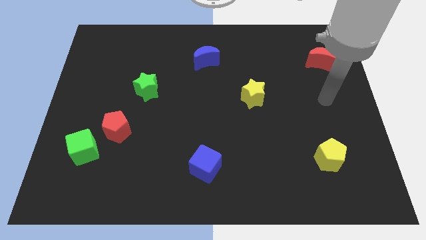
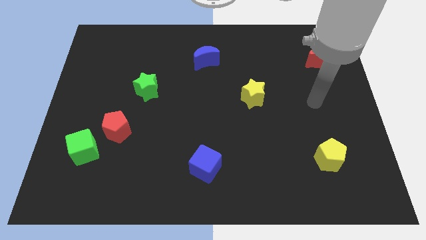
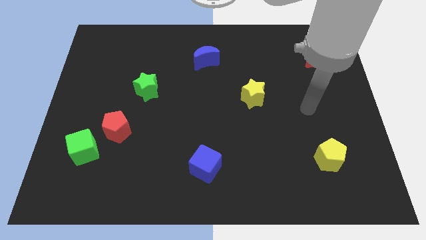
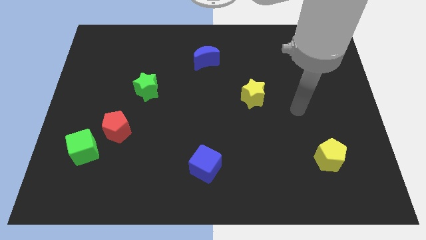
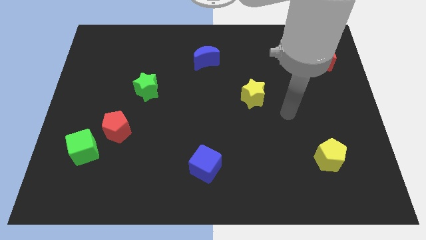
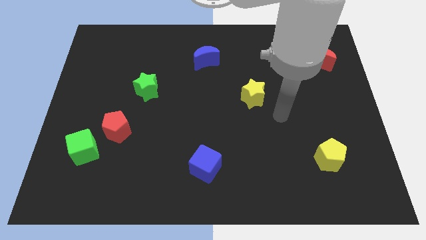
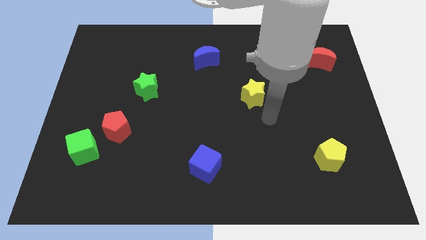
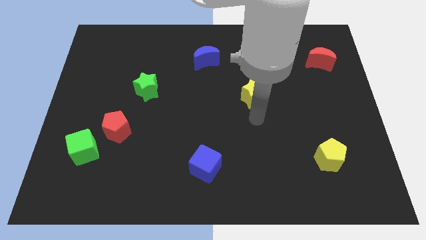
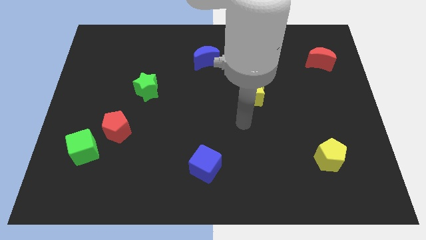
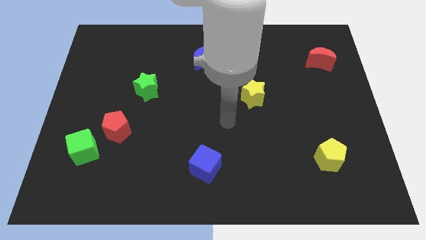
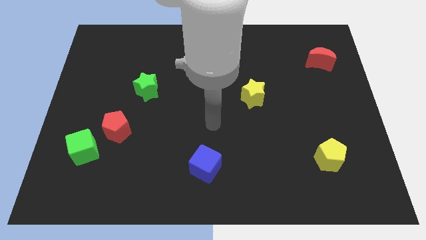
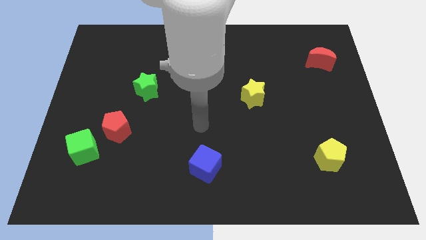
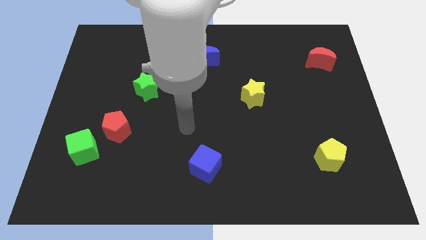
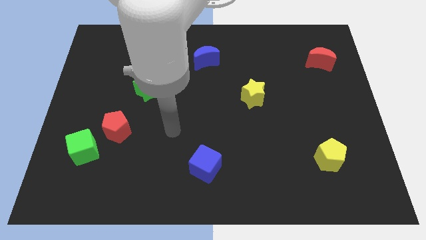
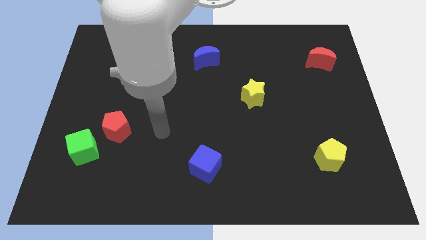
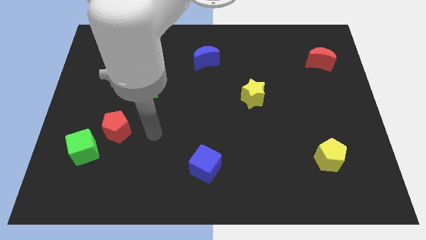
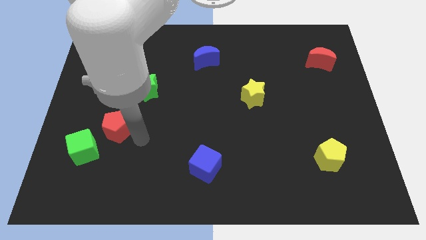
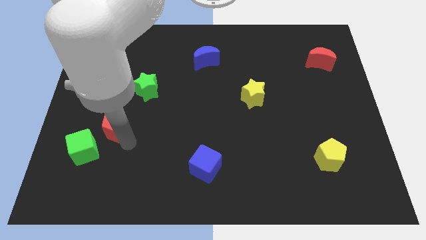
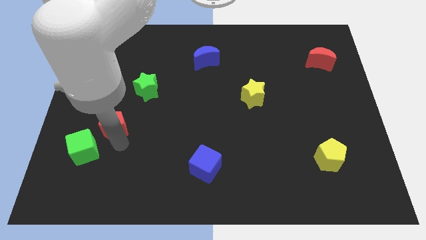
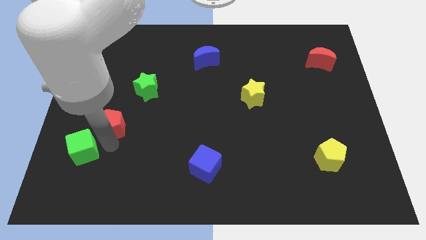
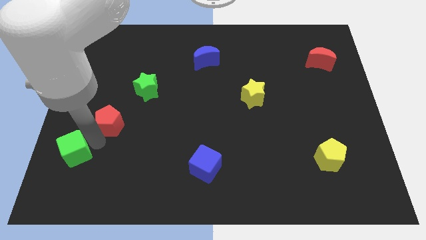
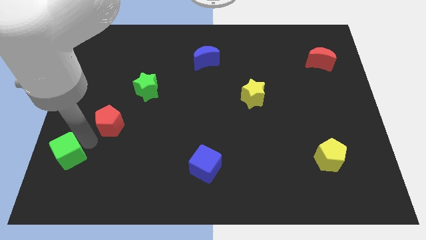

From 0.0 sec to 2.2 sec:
pull the red pentagon apart from the green cube

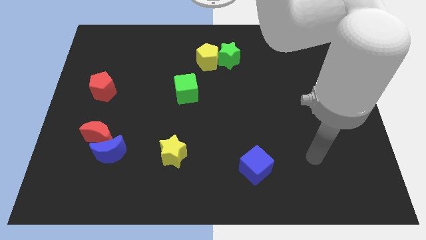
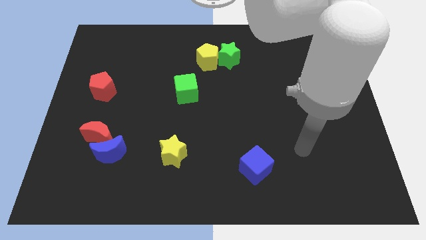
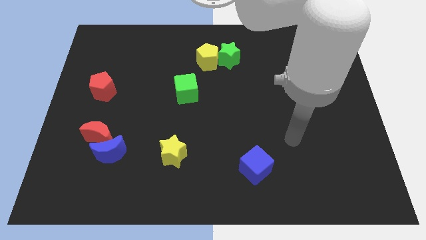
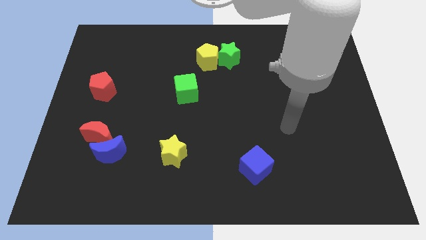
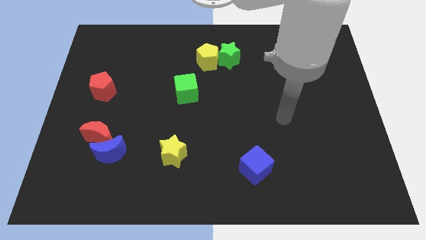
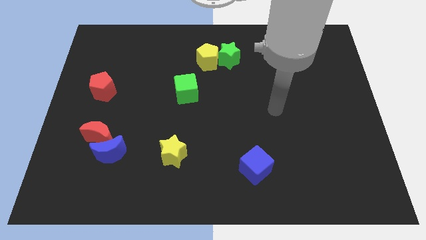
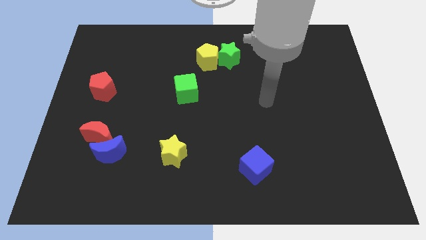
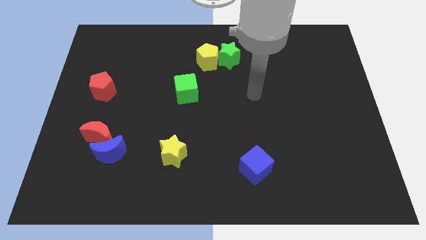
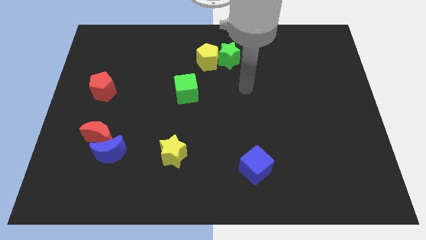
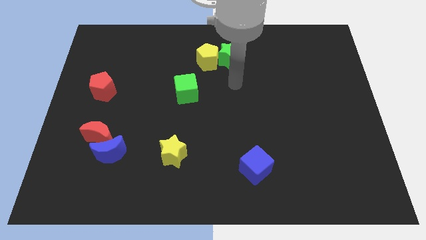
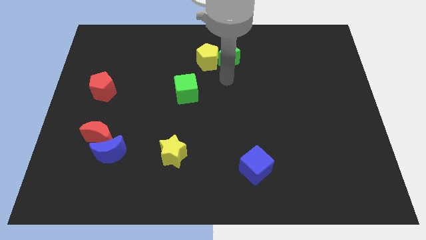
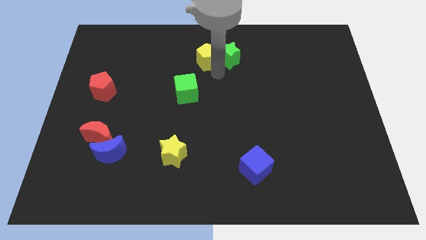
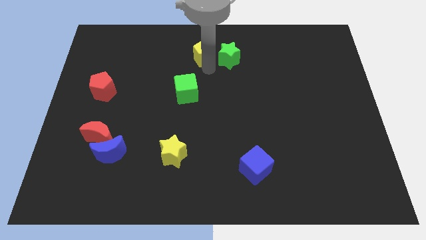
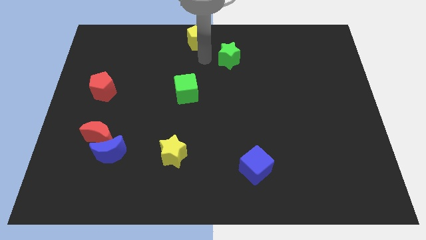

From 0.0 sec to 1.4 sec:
separate the green star from the yellow pentagon

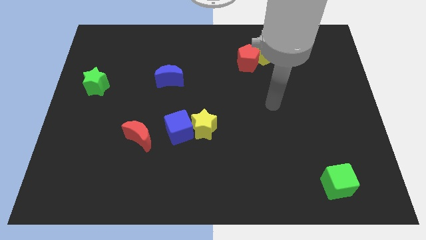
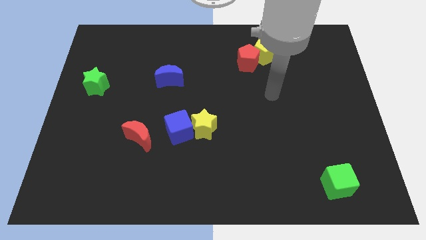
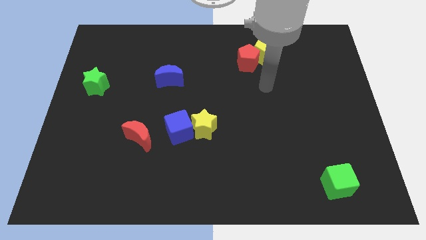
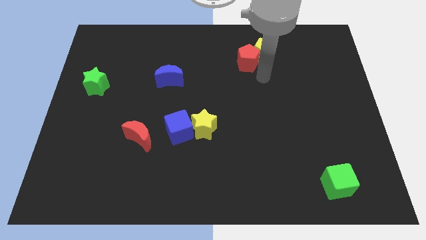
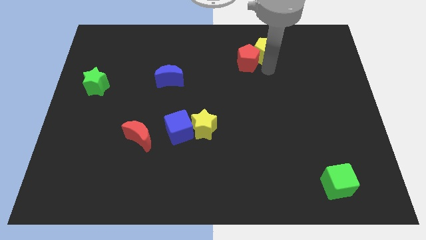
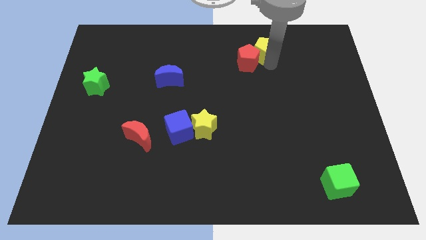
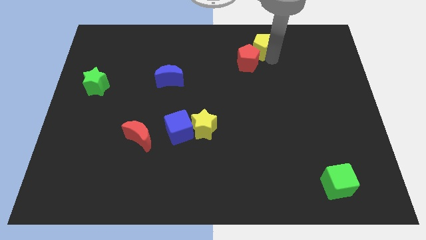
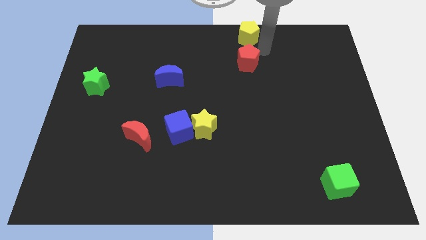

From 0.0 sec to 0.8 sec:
pull the red pentagon apart from the yellow pentagon

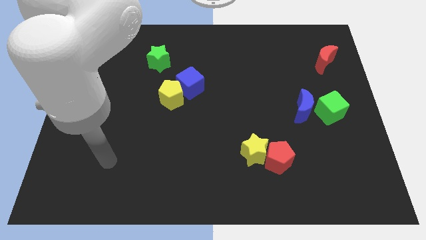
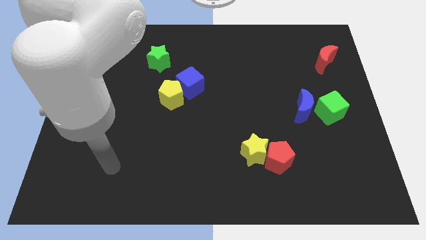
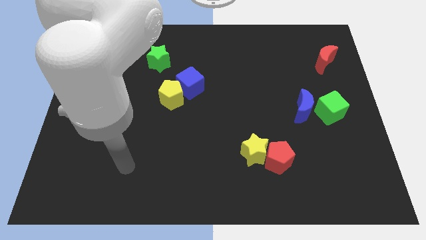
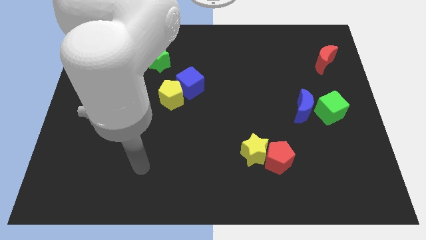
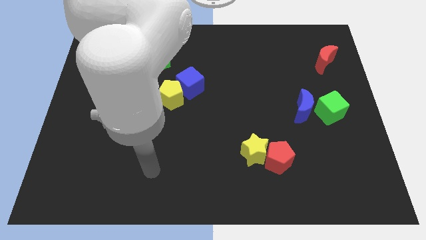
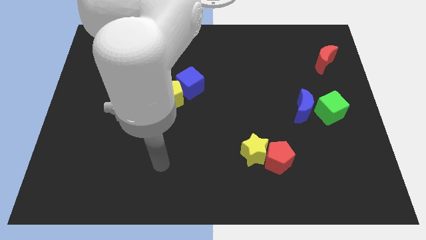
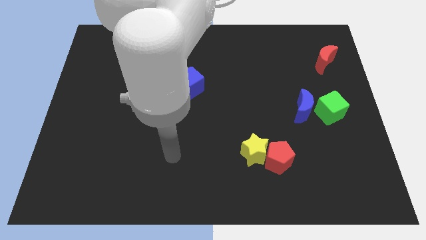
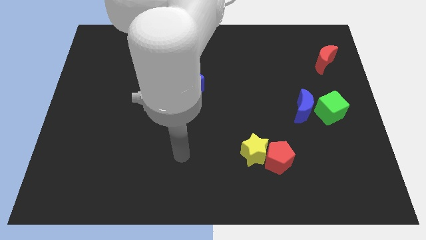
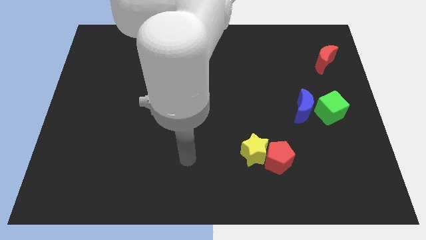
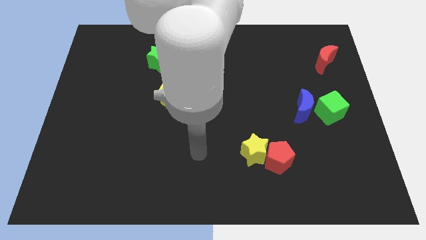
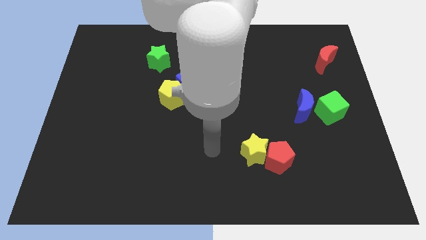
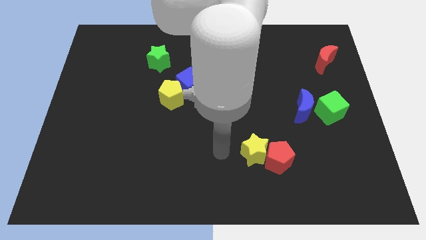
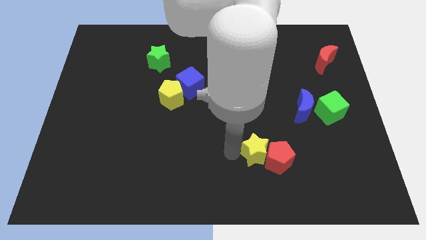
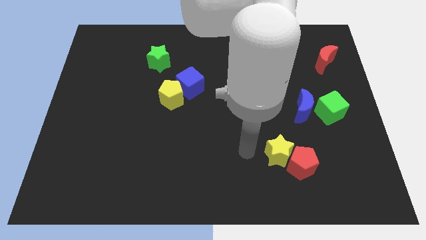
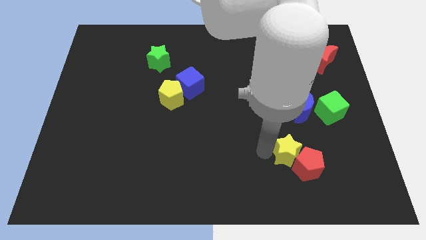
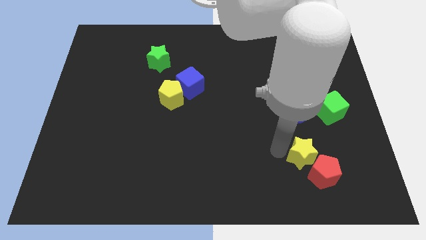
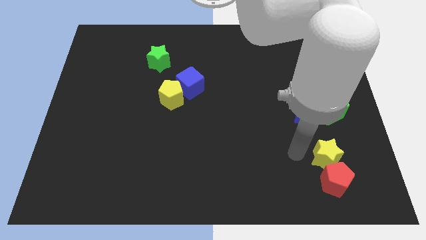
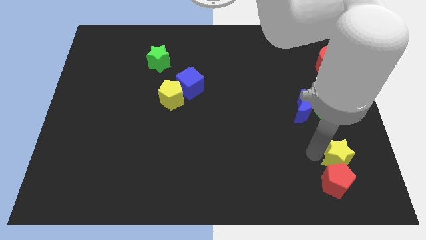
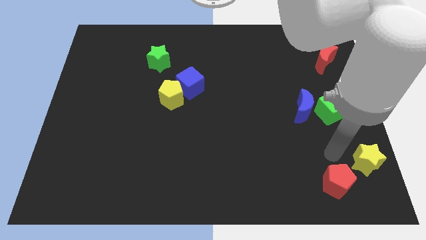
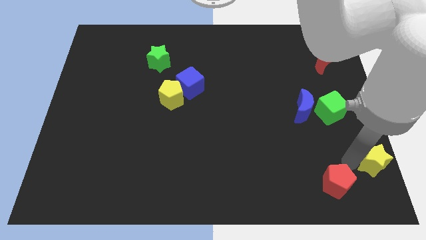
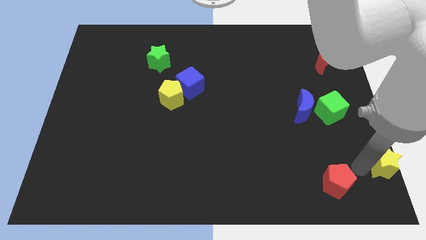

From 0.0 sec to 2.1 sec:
separate the red pentagon from the yellow star

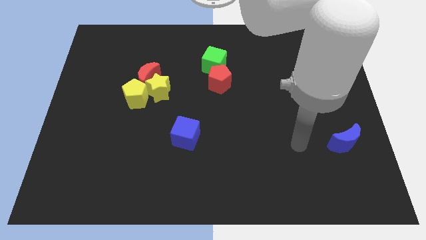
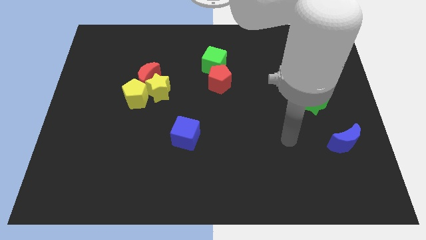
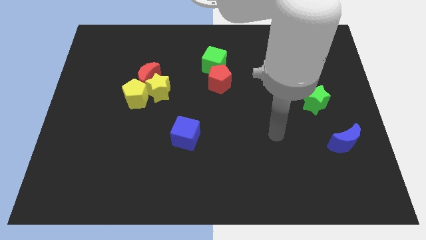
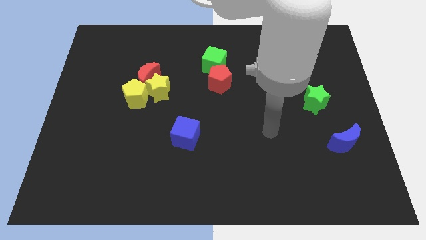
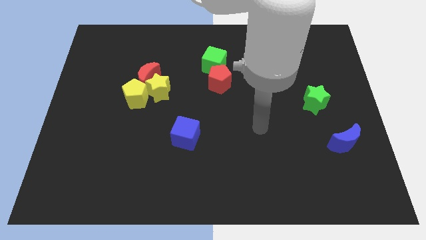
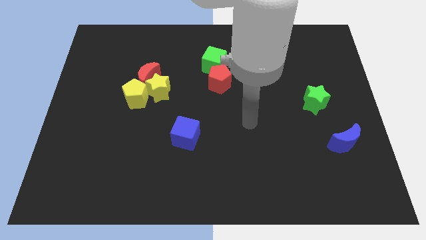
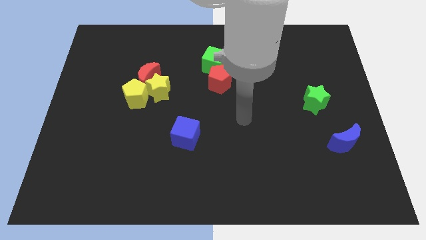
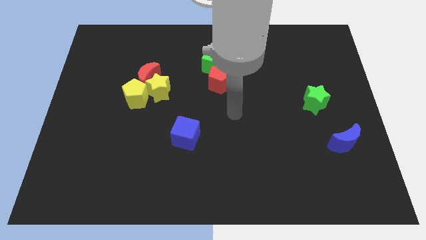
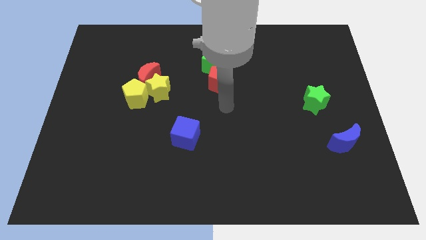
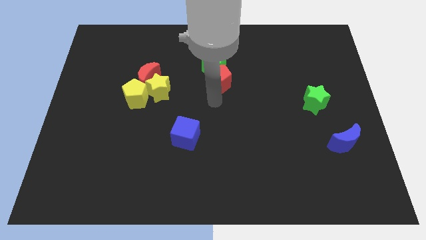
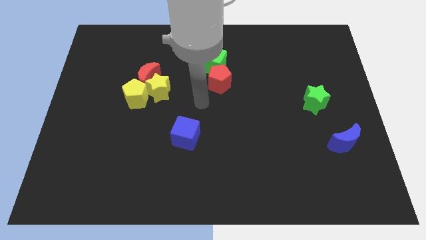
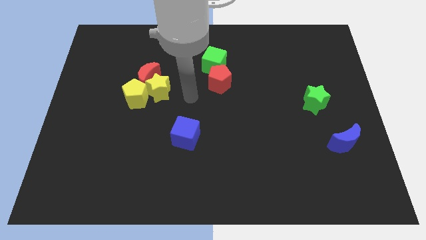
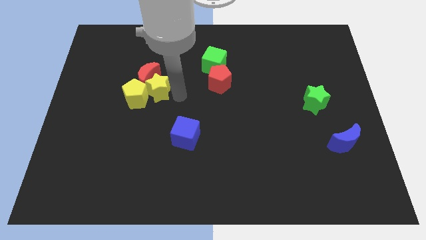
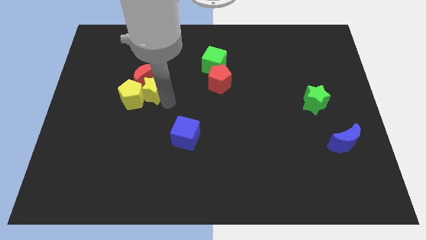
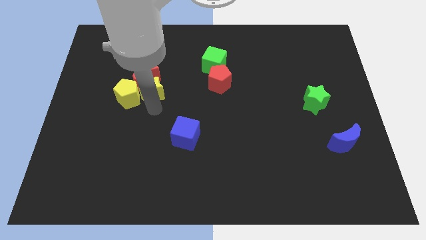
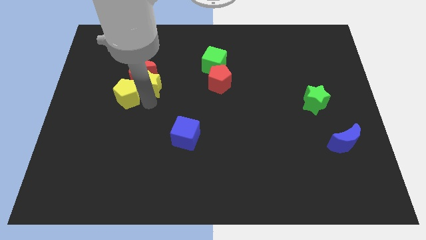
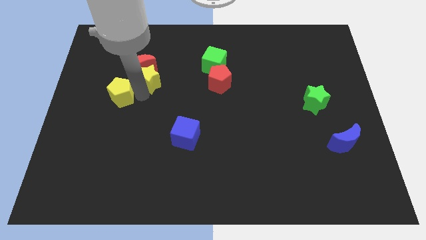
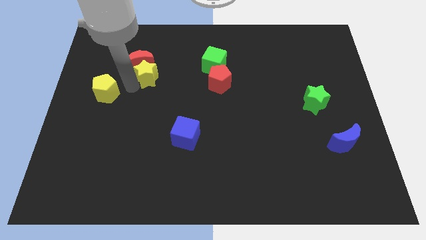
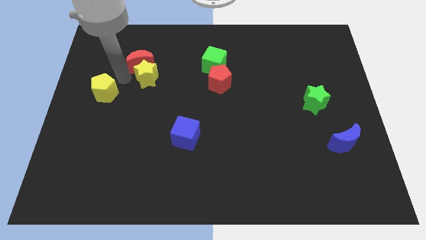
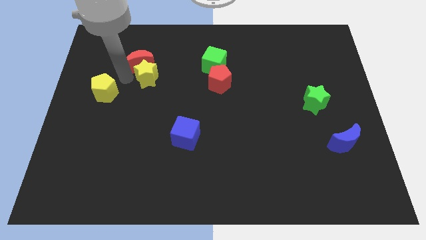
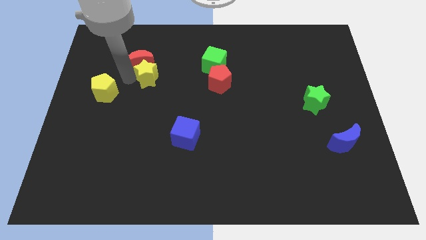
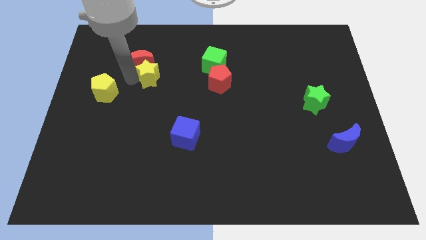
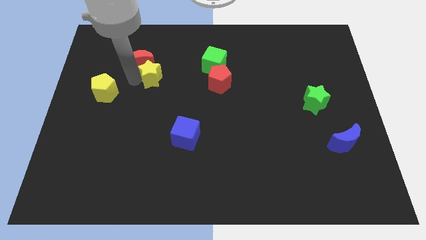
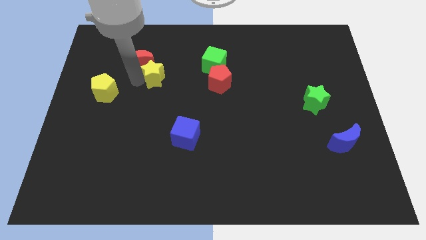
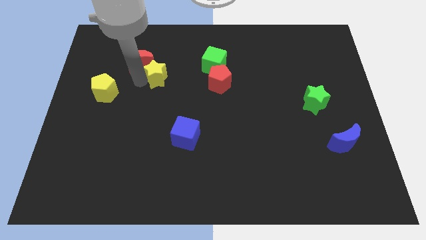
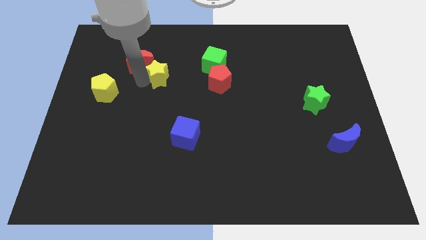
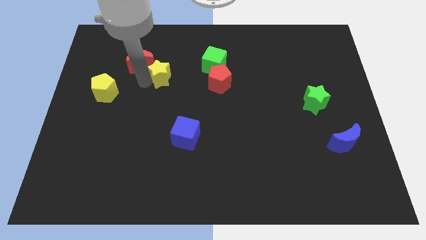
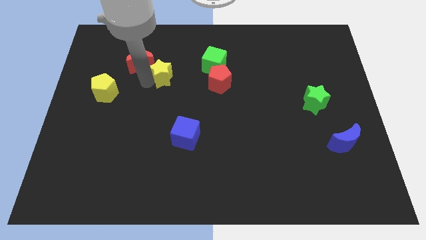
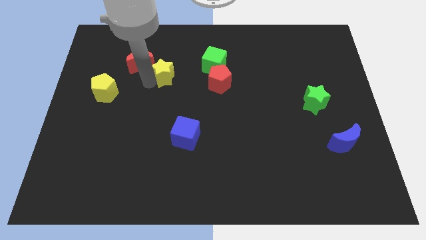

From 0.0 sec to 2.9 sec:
separate the yellow star from the red moon and yellow pentagon
